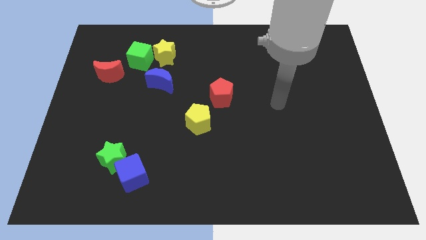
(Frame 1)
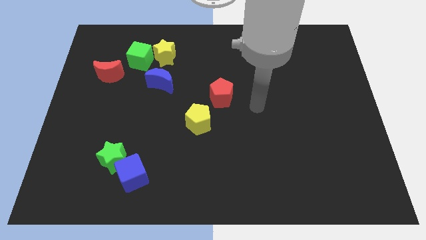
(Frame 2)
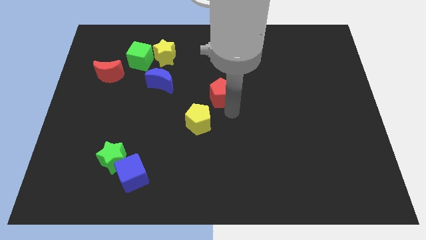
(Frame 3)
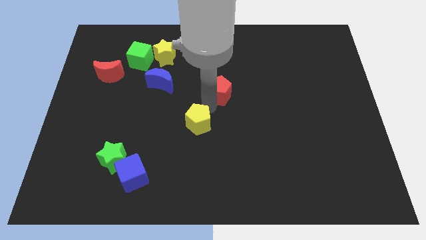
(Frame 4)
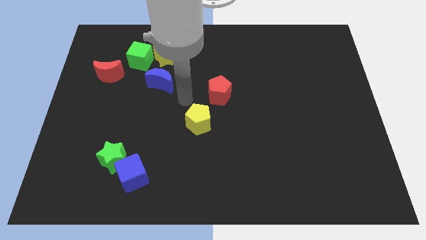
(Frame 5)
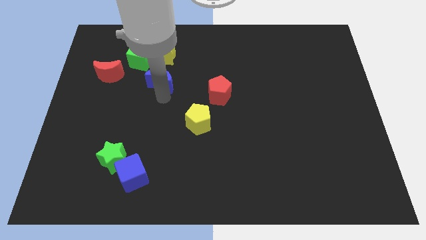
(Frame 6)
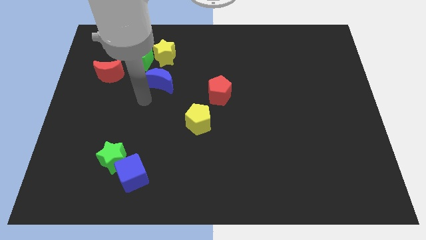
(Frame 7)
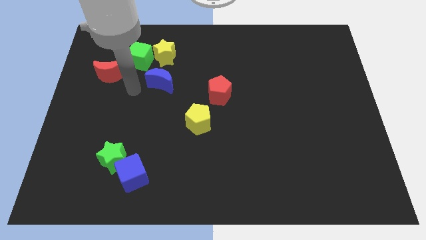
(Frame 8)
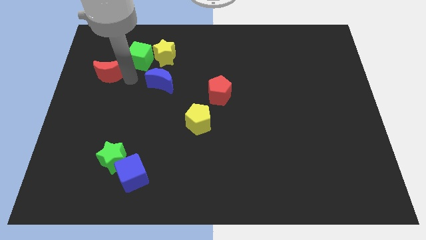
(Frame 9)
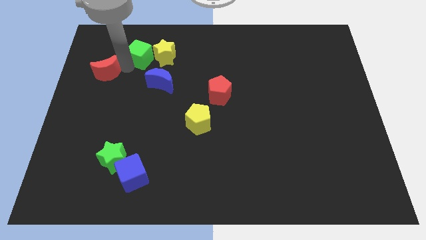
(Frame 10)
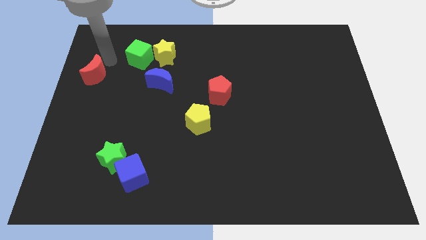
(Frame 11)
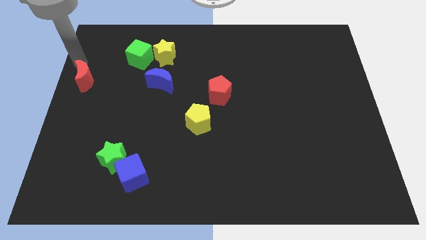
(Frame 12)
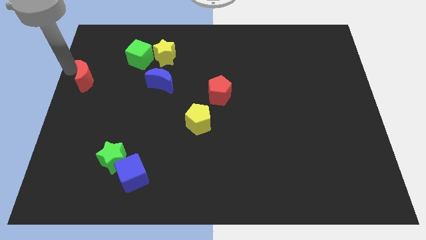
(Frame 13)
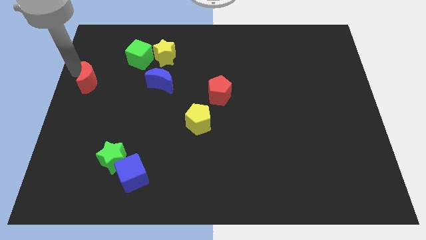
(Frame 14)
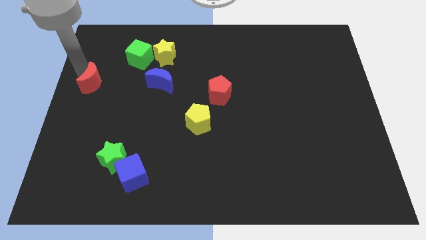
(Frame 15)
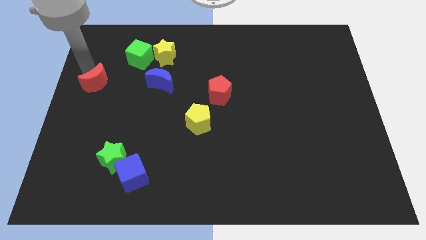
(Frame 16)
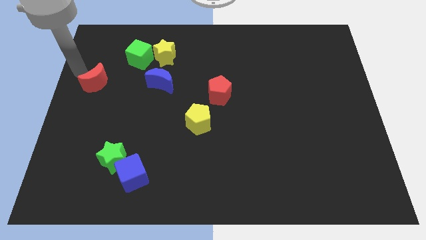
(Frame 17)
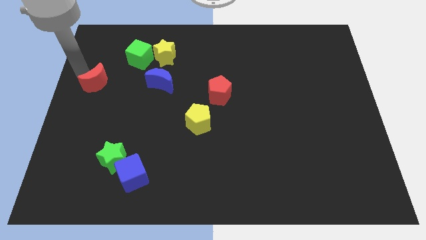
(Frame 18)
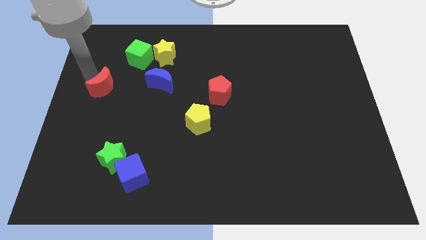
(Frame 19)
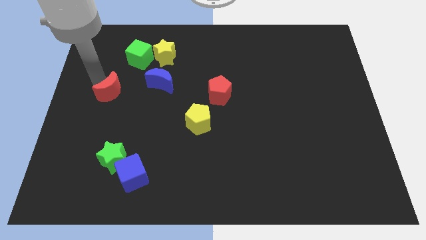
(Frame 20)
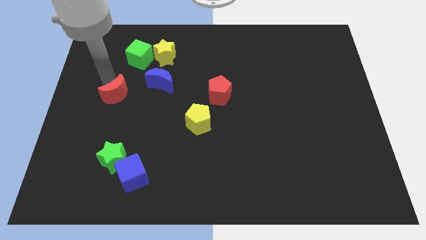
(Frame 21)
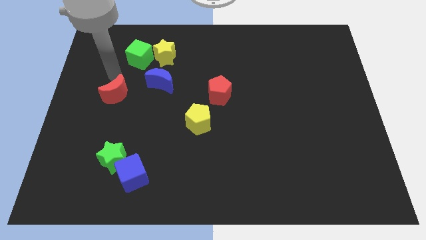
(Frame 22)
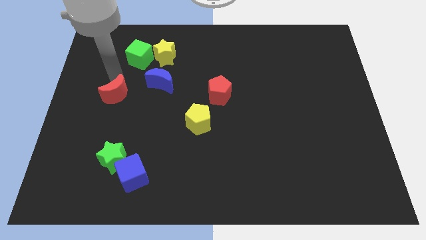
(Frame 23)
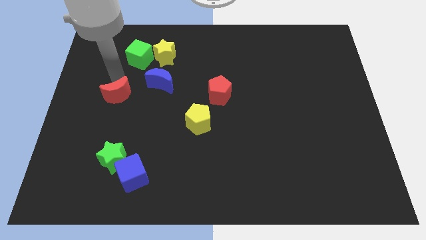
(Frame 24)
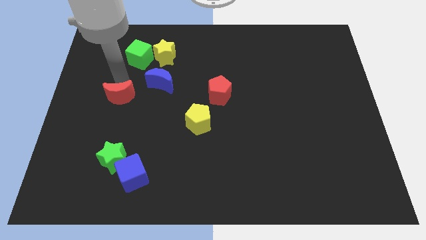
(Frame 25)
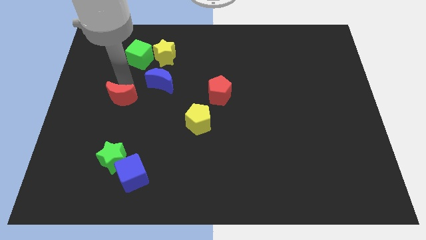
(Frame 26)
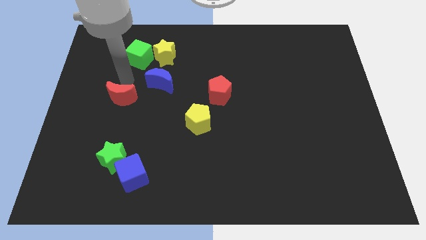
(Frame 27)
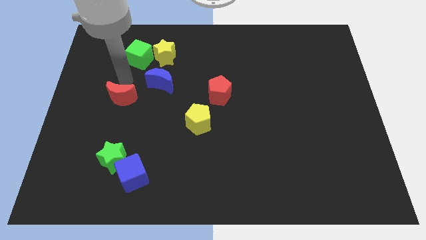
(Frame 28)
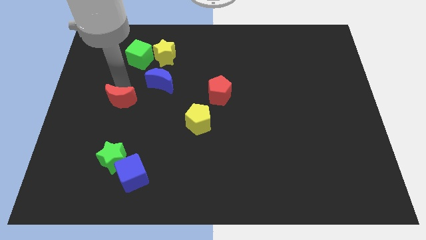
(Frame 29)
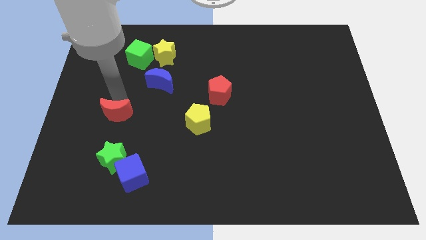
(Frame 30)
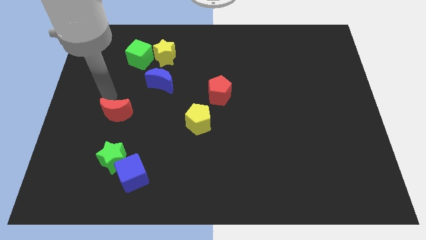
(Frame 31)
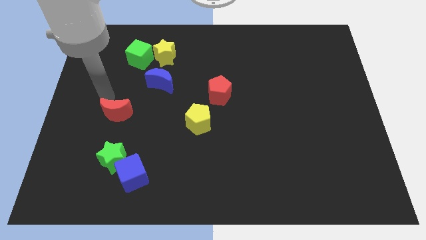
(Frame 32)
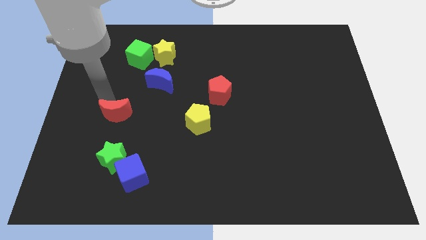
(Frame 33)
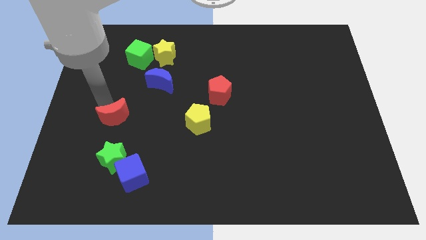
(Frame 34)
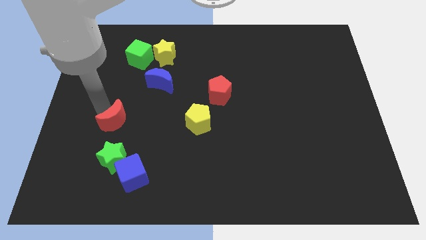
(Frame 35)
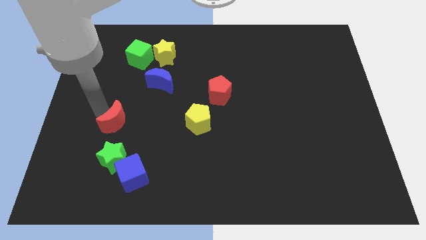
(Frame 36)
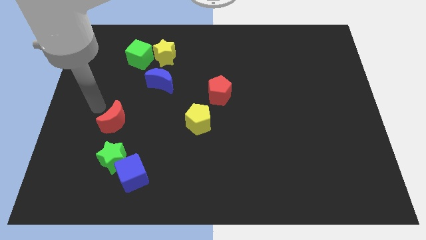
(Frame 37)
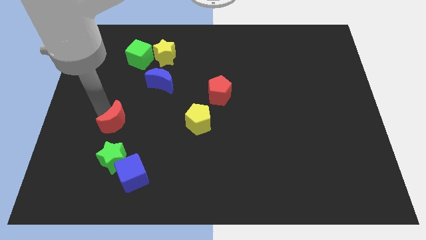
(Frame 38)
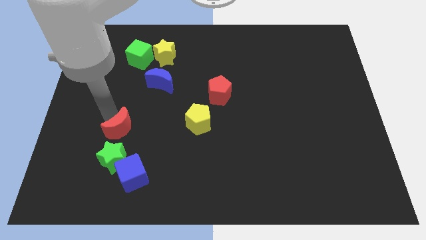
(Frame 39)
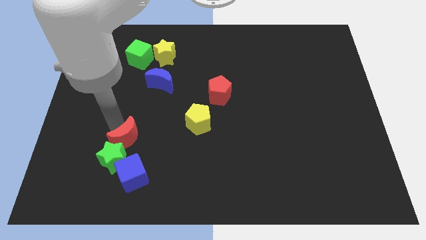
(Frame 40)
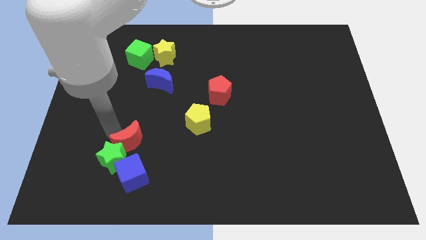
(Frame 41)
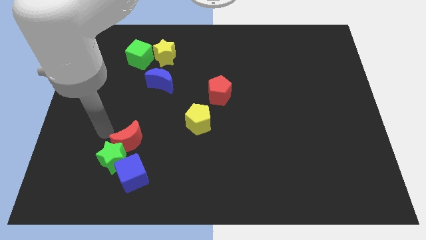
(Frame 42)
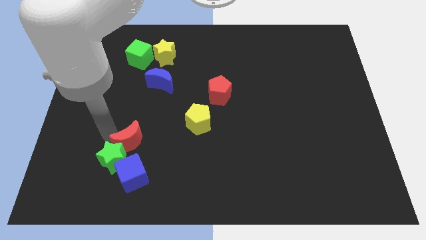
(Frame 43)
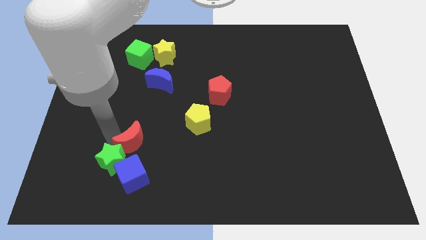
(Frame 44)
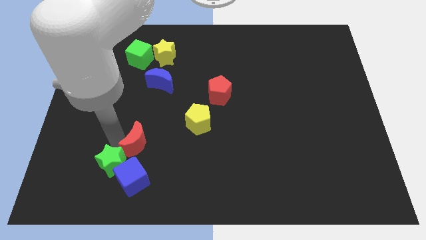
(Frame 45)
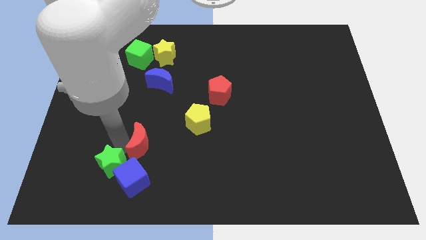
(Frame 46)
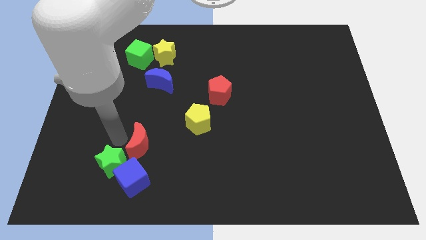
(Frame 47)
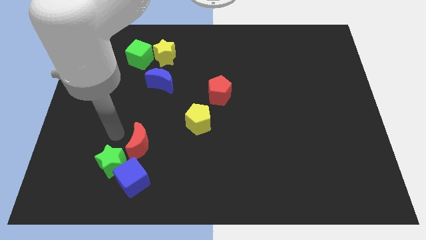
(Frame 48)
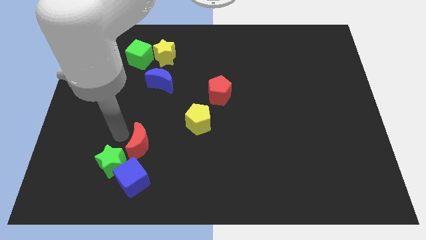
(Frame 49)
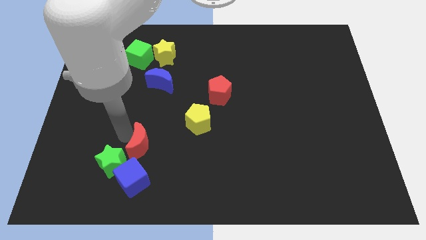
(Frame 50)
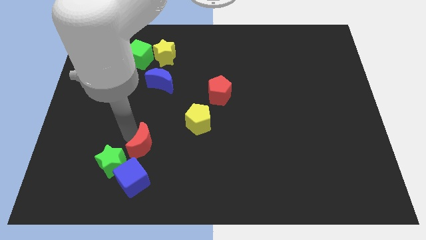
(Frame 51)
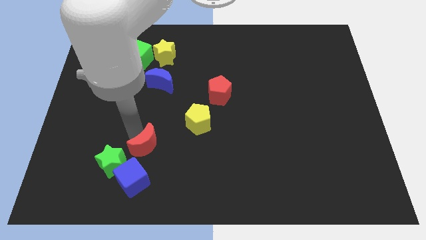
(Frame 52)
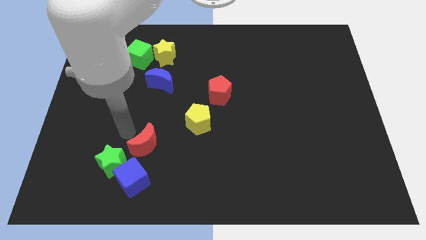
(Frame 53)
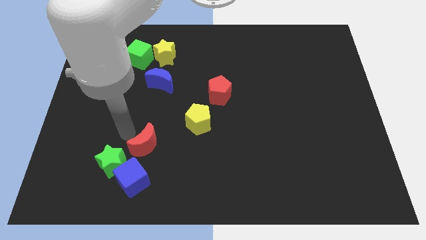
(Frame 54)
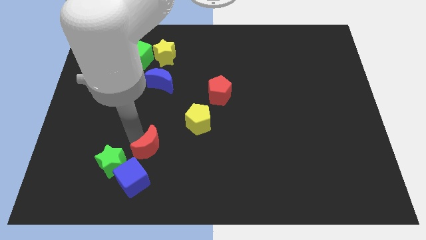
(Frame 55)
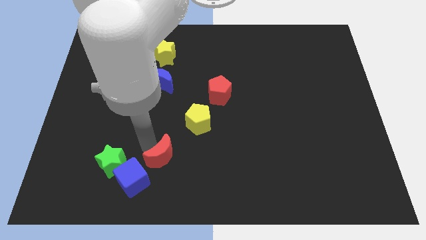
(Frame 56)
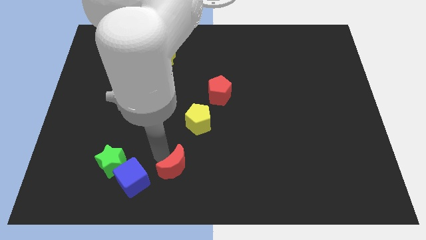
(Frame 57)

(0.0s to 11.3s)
slide the red moon to the bottom

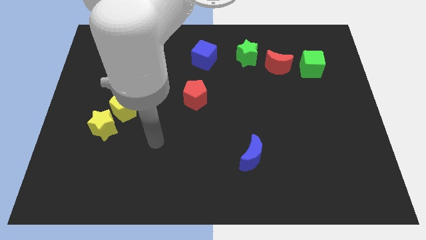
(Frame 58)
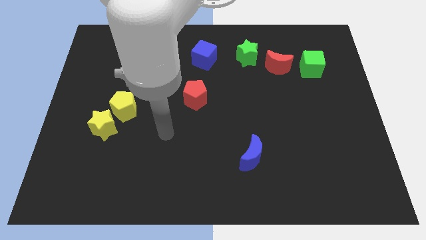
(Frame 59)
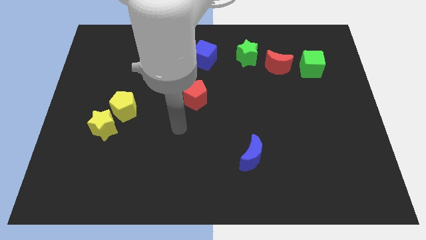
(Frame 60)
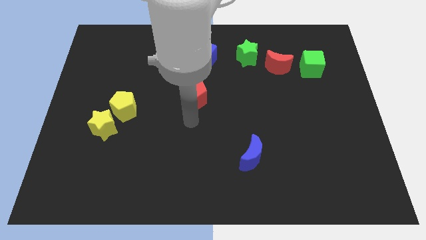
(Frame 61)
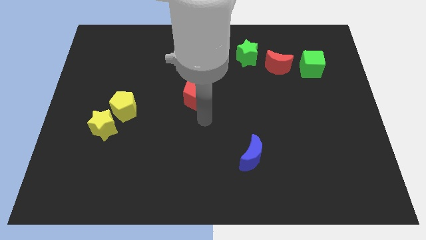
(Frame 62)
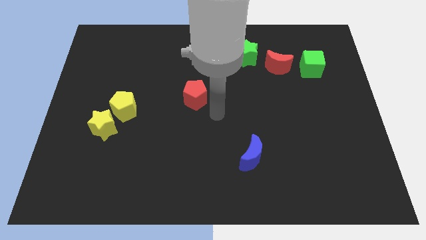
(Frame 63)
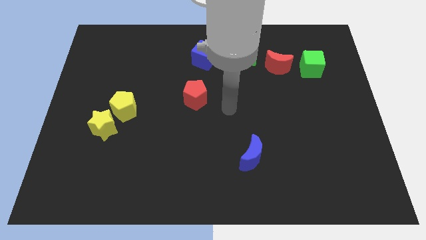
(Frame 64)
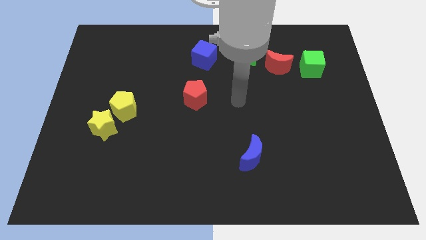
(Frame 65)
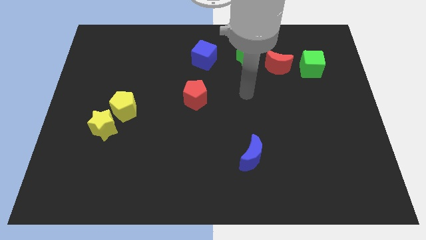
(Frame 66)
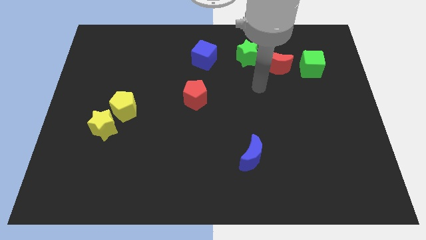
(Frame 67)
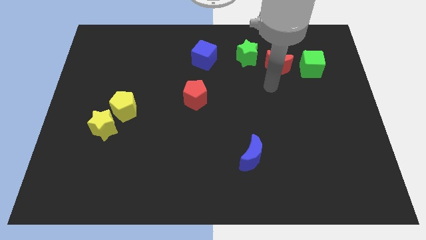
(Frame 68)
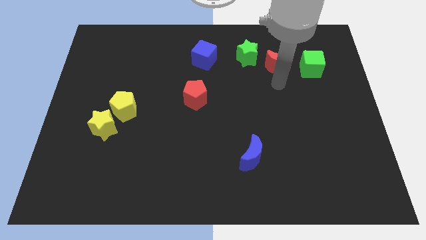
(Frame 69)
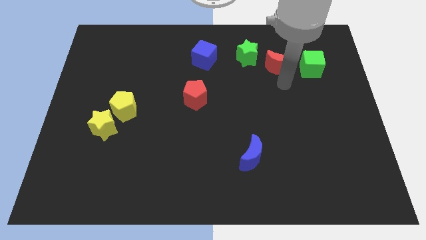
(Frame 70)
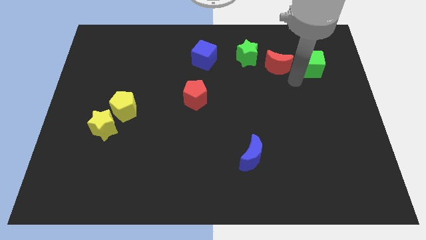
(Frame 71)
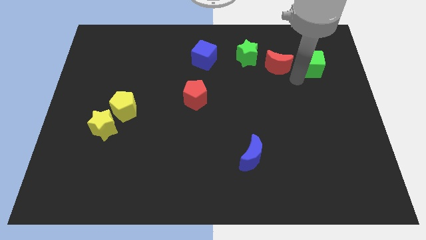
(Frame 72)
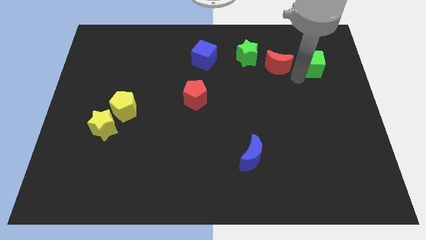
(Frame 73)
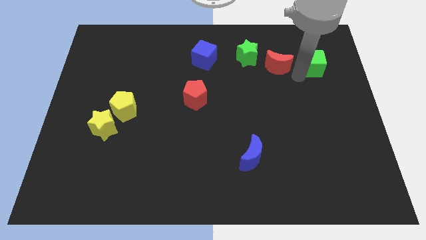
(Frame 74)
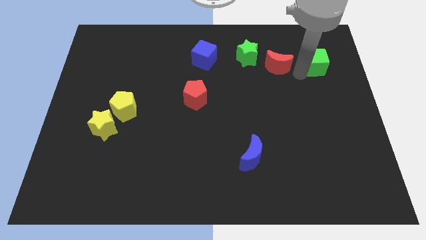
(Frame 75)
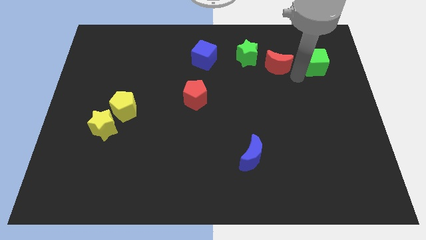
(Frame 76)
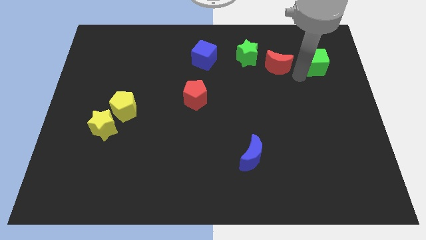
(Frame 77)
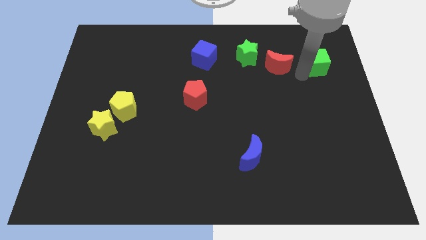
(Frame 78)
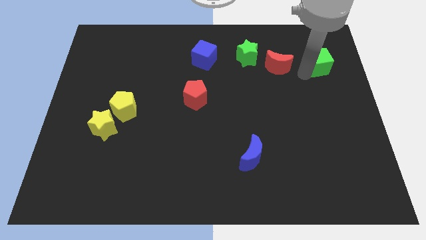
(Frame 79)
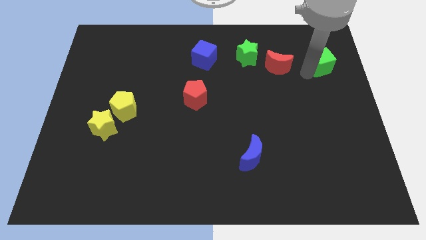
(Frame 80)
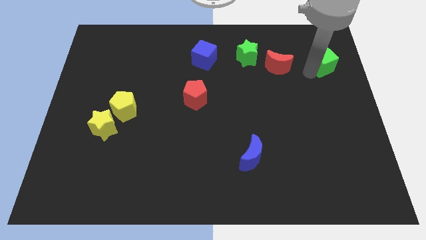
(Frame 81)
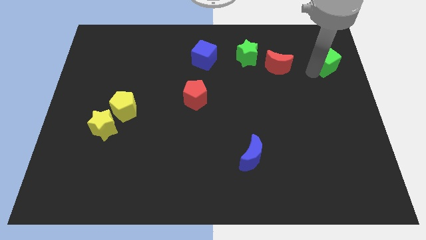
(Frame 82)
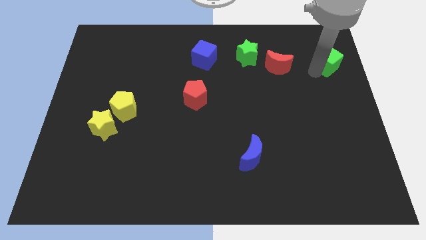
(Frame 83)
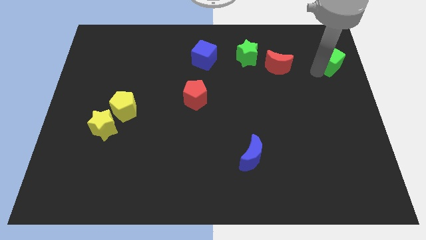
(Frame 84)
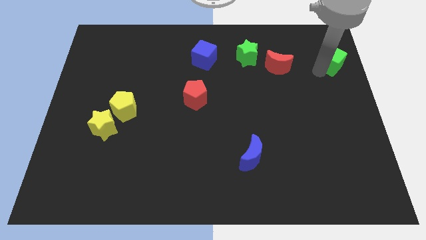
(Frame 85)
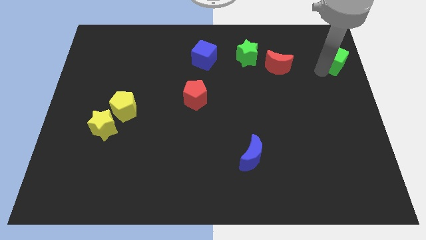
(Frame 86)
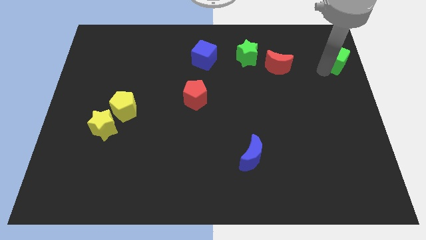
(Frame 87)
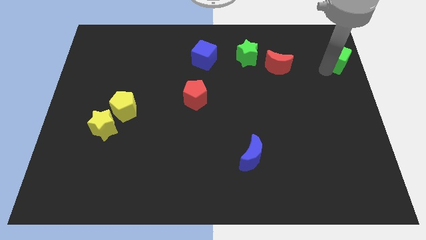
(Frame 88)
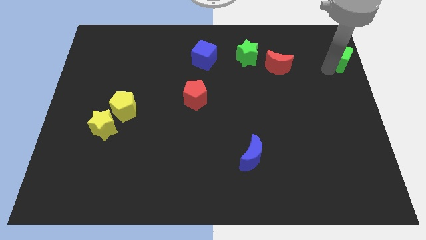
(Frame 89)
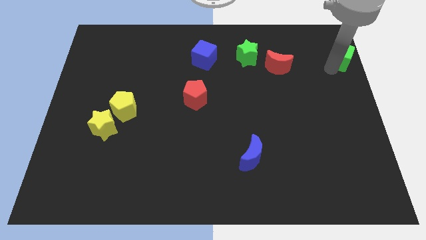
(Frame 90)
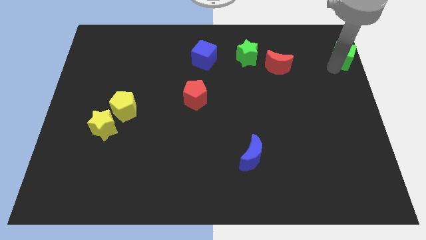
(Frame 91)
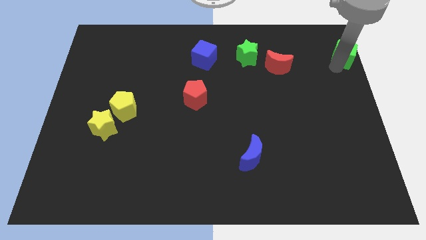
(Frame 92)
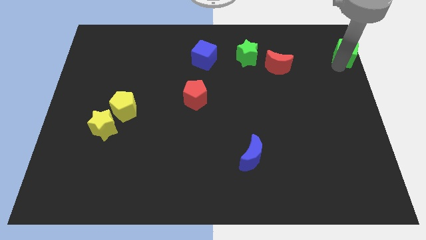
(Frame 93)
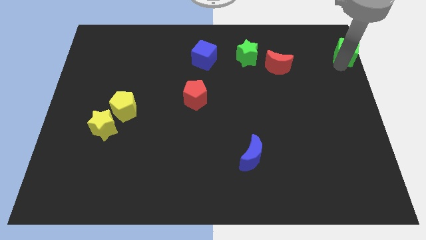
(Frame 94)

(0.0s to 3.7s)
slide the green cube to the top right corner
